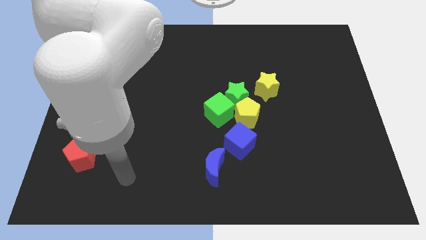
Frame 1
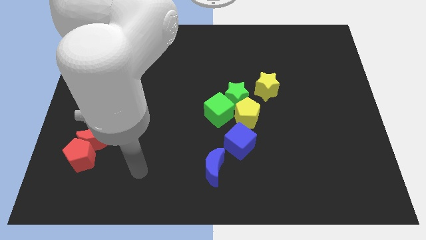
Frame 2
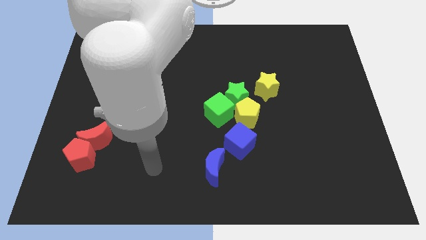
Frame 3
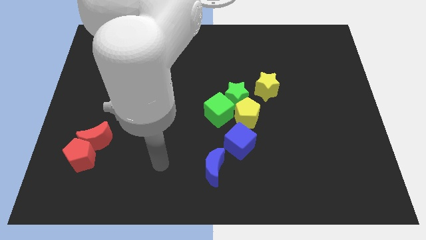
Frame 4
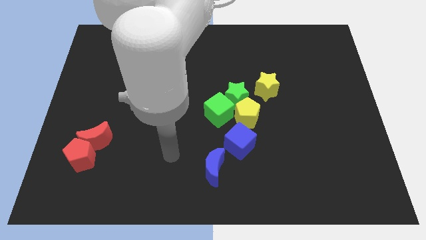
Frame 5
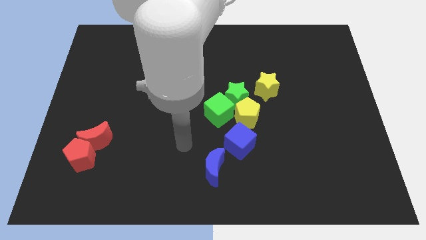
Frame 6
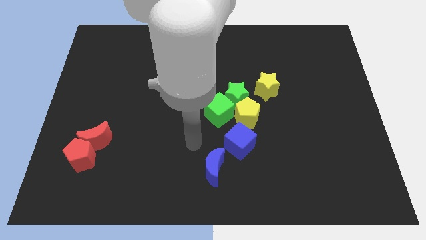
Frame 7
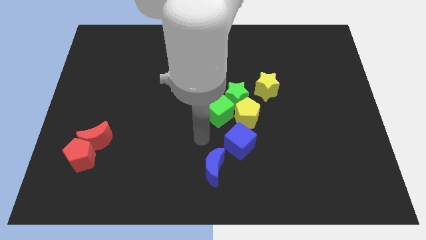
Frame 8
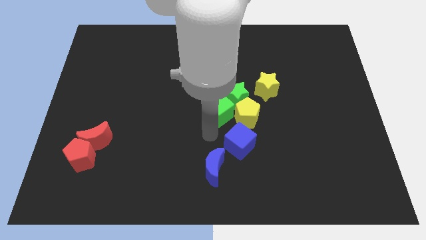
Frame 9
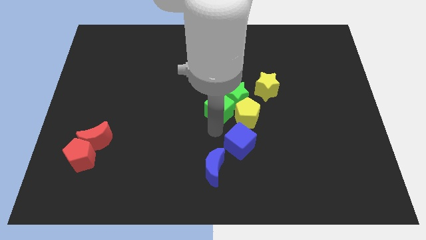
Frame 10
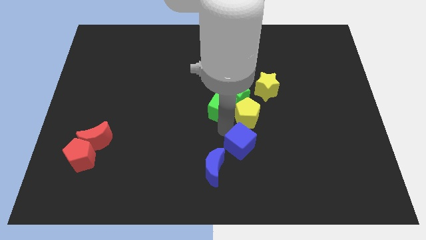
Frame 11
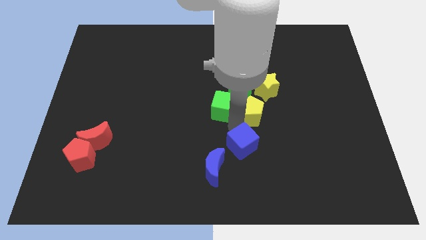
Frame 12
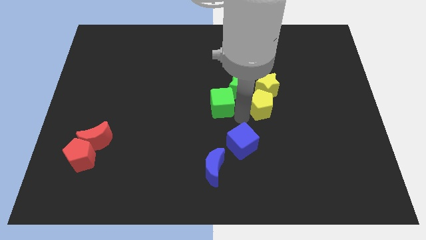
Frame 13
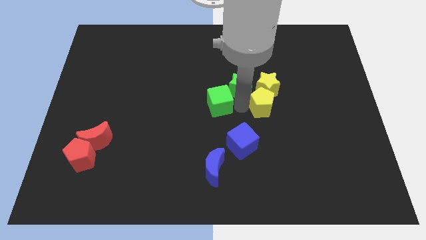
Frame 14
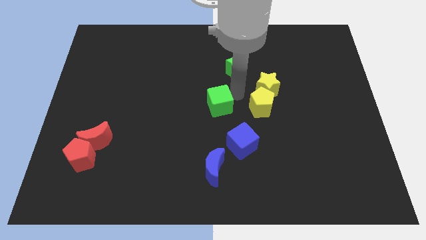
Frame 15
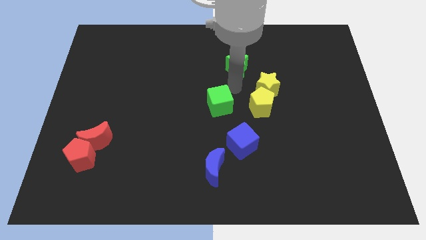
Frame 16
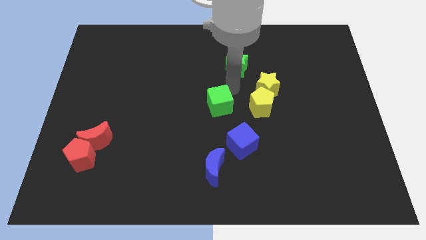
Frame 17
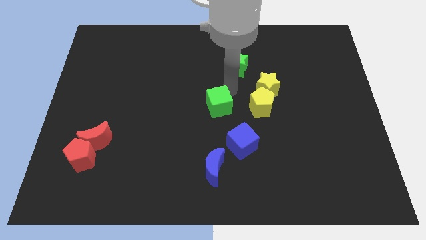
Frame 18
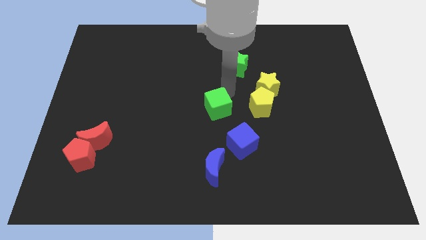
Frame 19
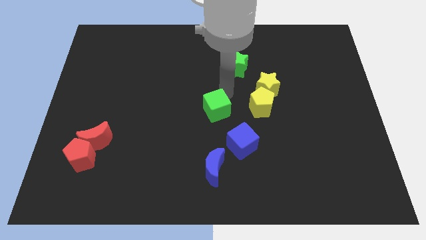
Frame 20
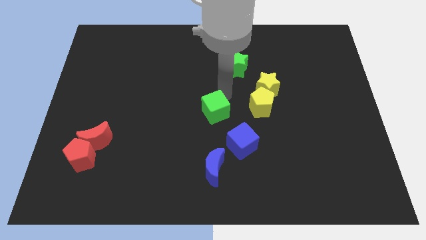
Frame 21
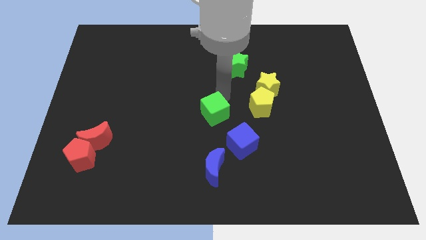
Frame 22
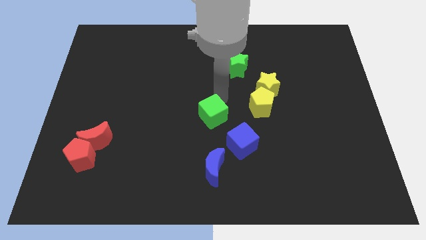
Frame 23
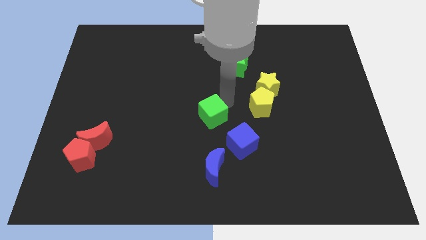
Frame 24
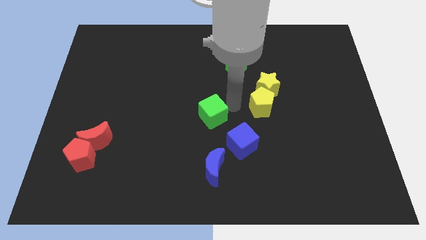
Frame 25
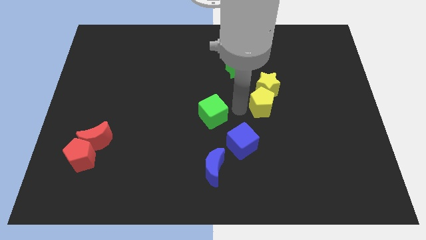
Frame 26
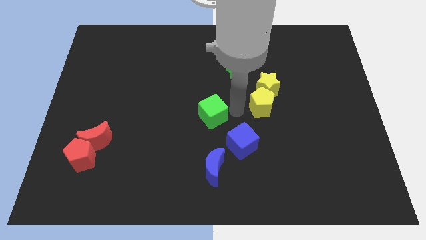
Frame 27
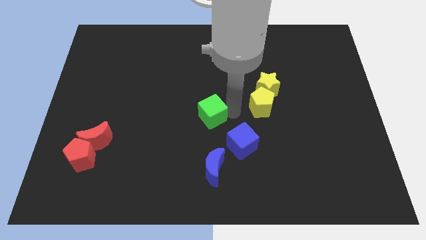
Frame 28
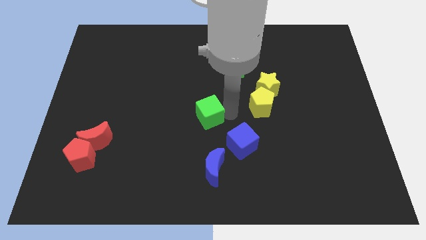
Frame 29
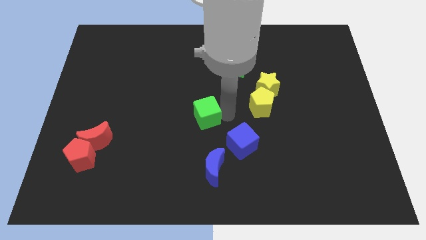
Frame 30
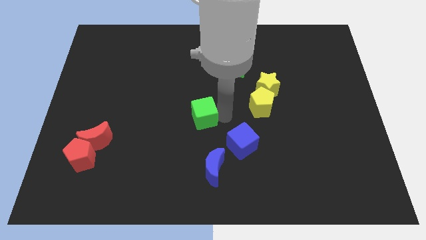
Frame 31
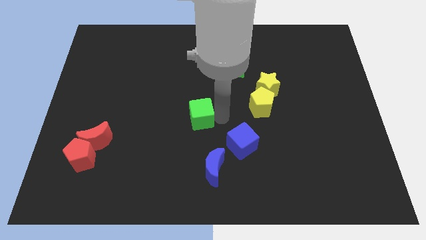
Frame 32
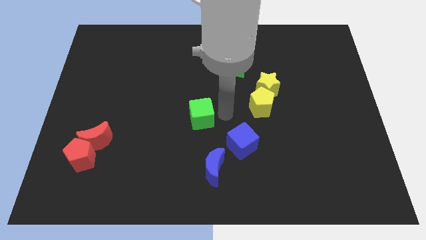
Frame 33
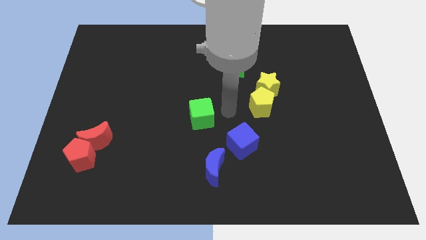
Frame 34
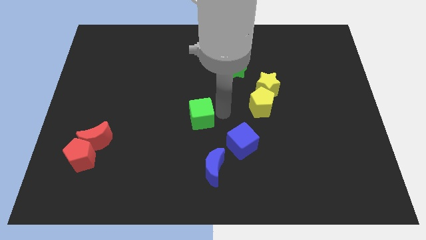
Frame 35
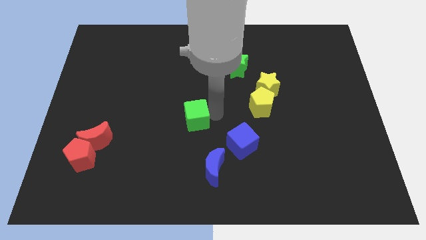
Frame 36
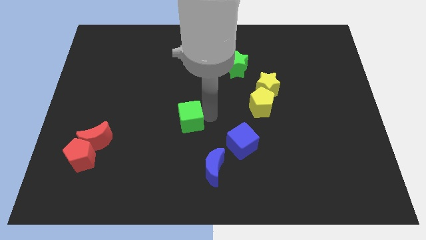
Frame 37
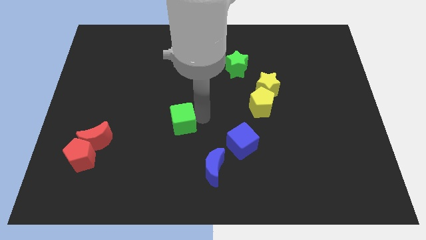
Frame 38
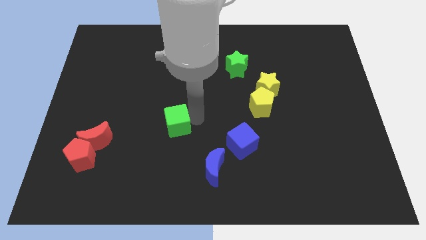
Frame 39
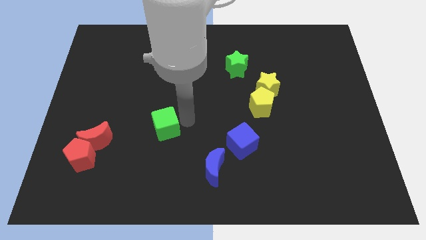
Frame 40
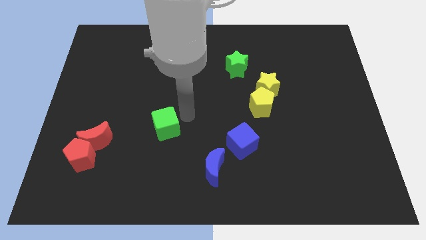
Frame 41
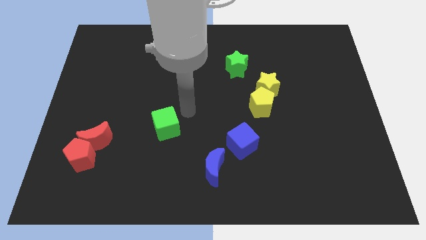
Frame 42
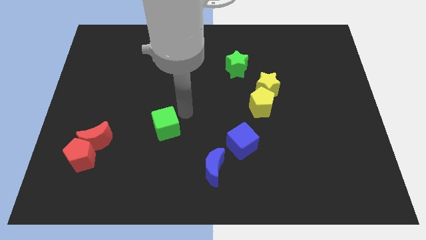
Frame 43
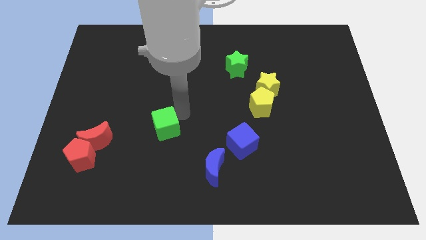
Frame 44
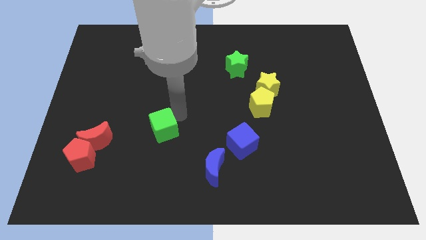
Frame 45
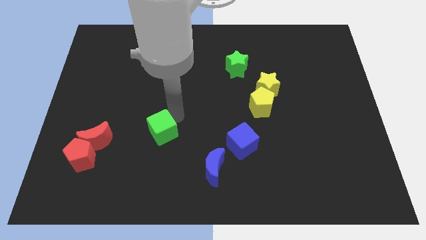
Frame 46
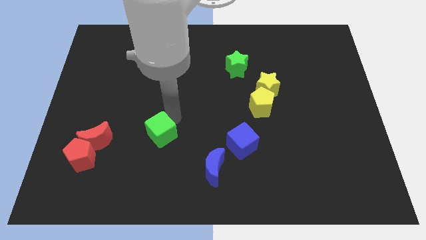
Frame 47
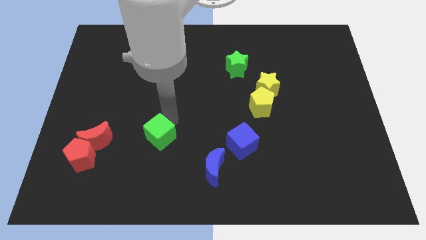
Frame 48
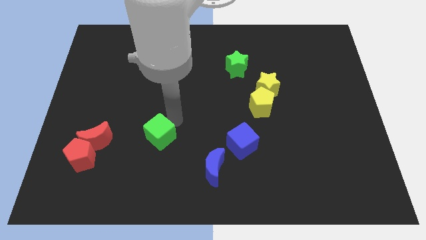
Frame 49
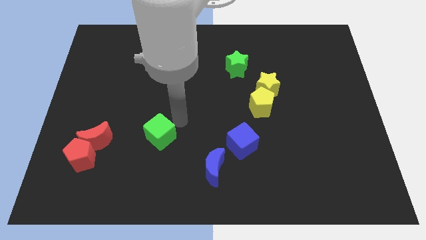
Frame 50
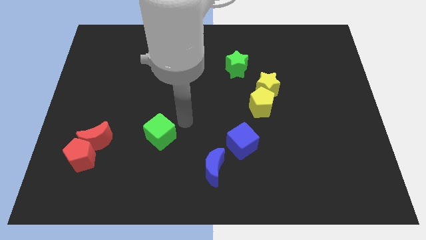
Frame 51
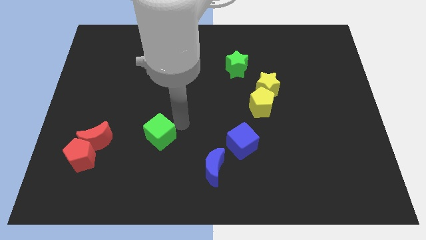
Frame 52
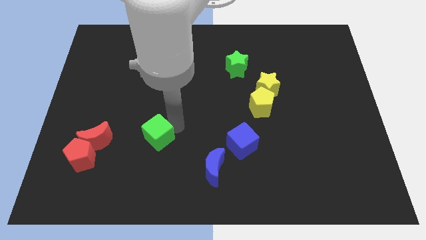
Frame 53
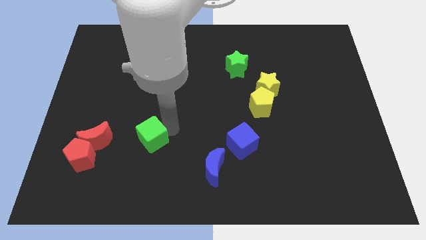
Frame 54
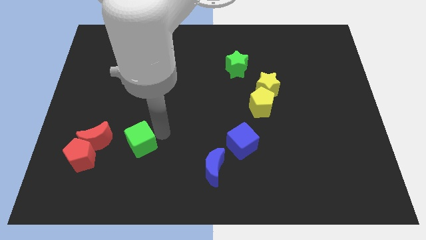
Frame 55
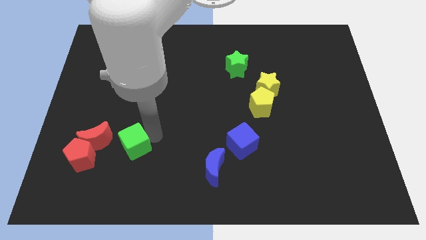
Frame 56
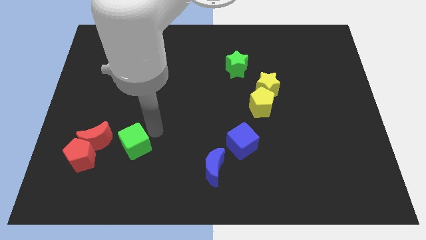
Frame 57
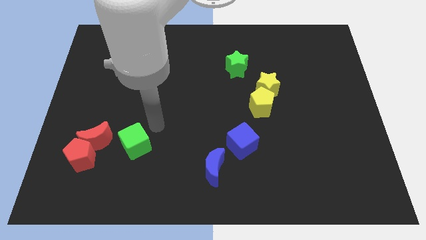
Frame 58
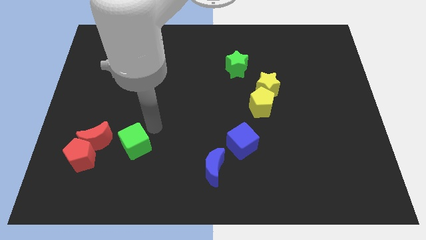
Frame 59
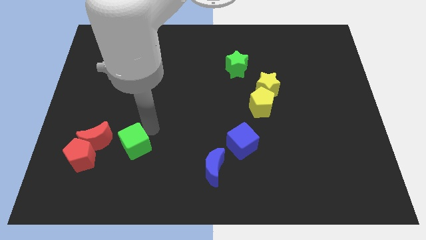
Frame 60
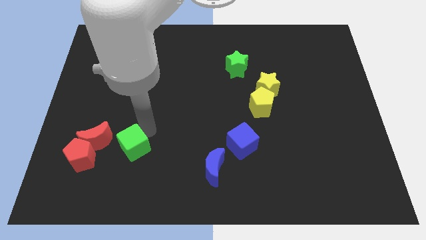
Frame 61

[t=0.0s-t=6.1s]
move the green cube to the bottom right side of the red moon

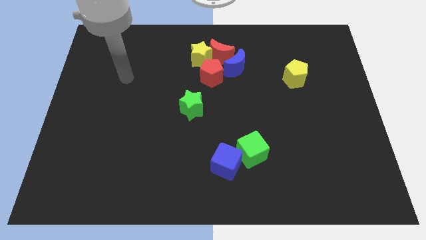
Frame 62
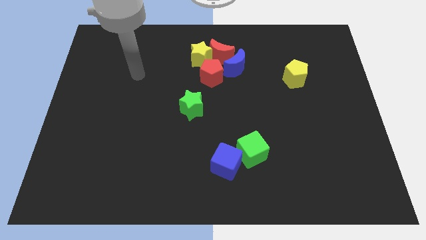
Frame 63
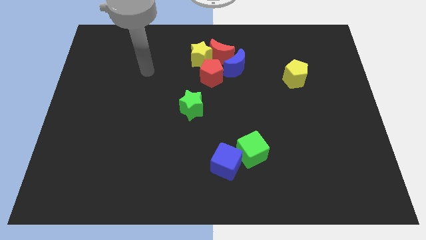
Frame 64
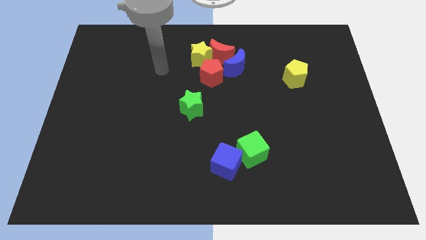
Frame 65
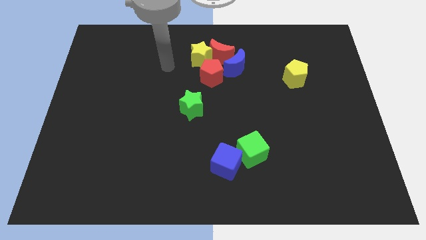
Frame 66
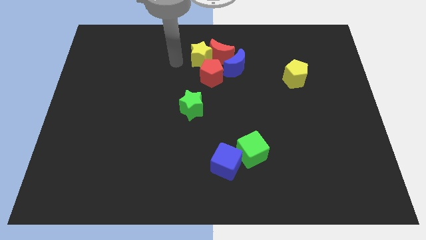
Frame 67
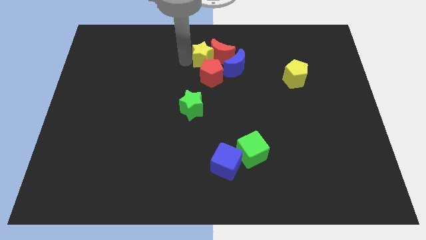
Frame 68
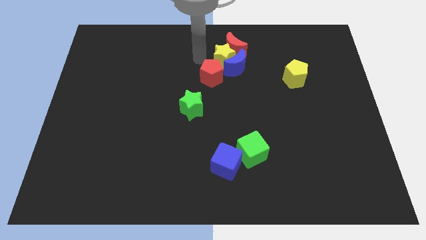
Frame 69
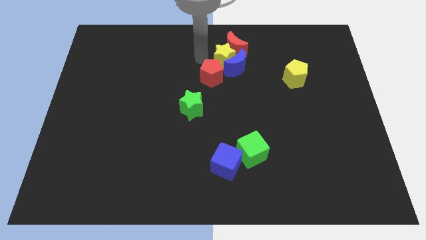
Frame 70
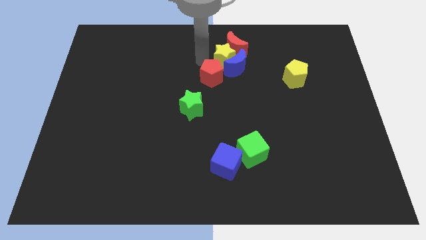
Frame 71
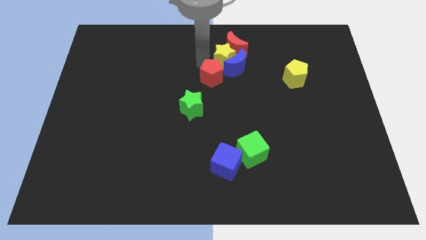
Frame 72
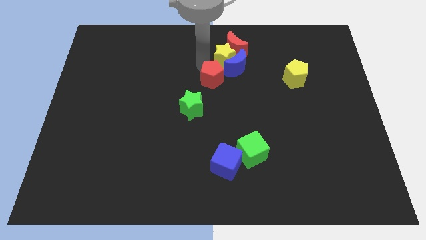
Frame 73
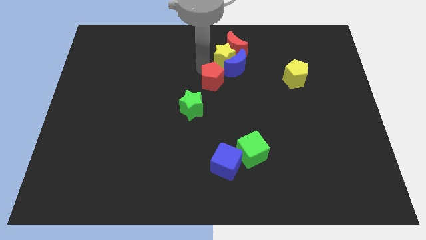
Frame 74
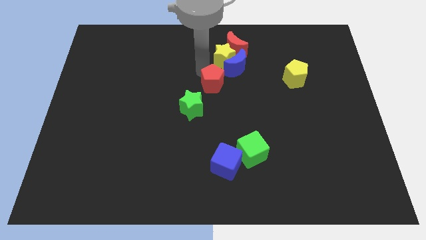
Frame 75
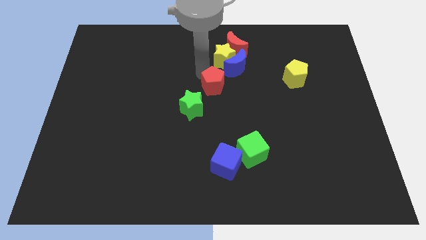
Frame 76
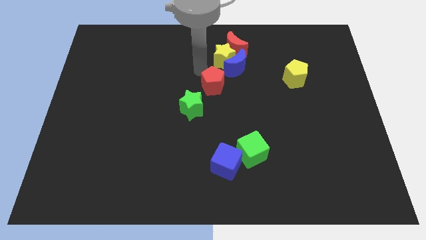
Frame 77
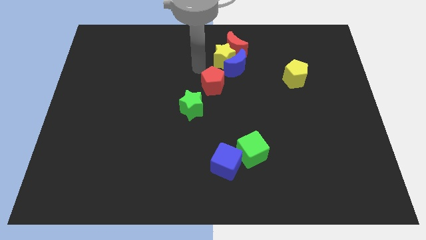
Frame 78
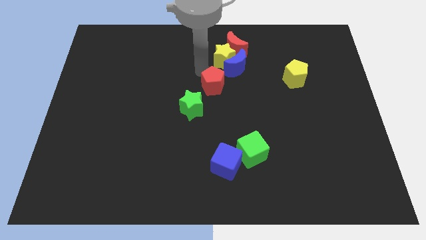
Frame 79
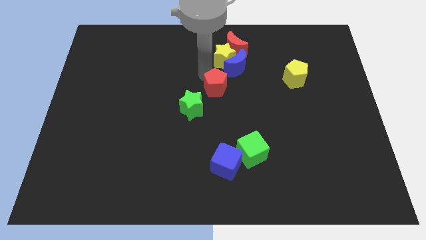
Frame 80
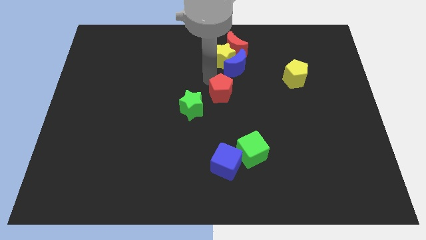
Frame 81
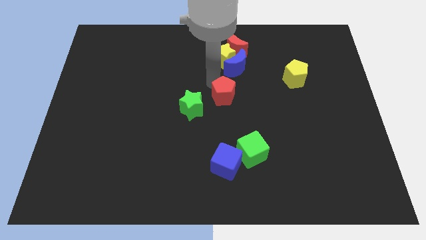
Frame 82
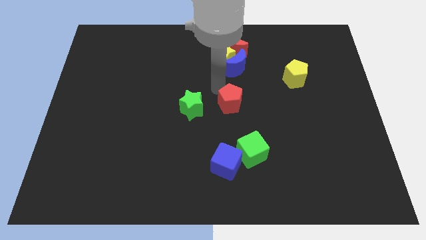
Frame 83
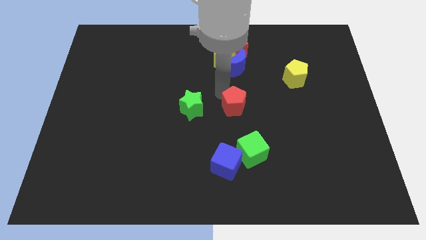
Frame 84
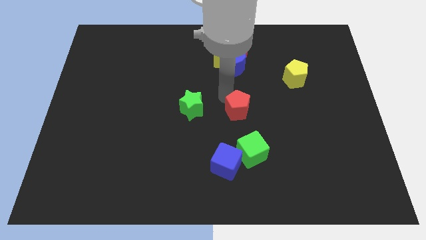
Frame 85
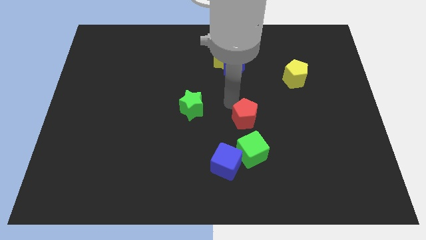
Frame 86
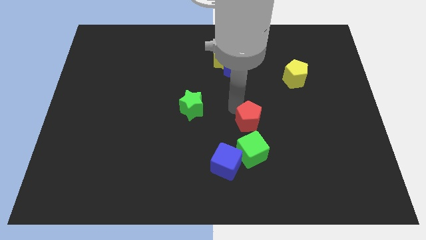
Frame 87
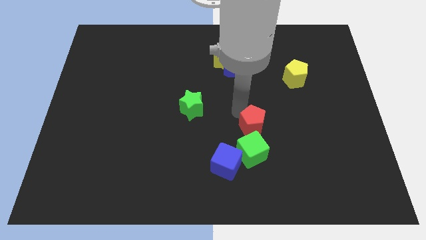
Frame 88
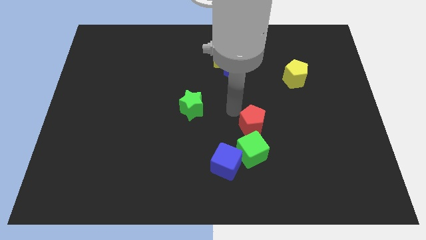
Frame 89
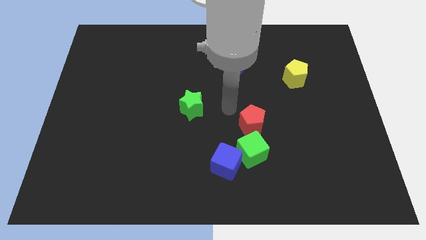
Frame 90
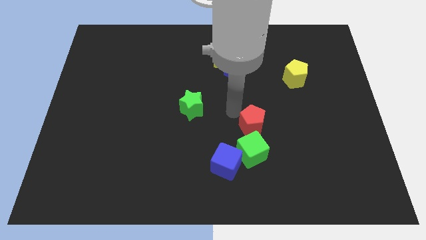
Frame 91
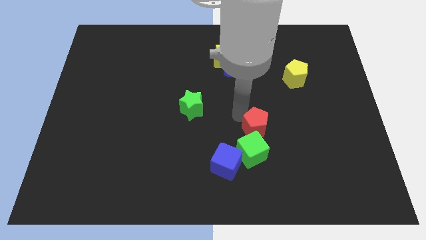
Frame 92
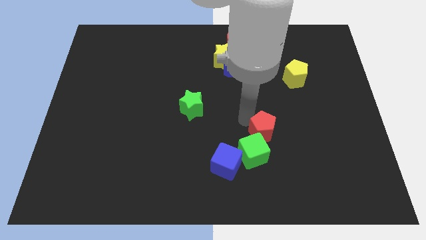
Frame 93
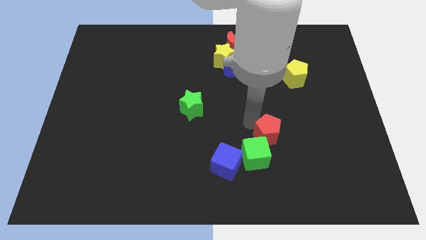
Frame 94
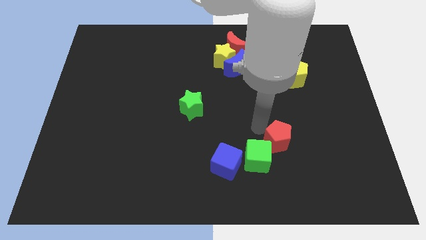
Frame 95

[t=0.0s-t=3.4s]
move the red pentagon right of the green cube
